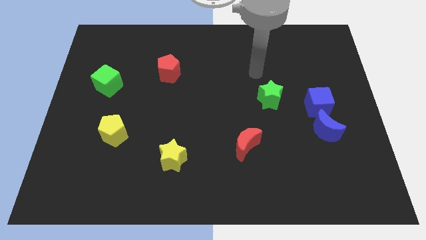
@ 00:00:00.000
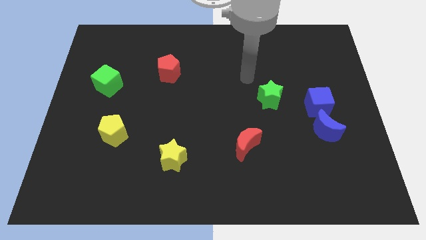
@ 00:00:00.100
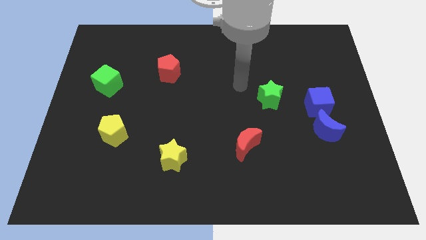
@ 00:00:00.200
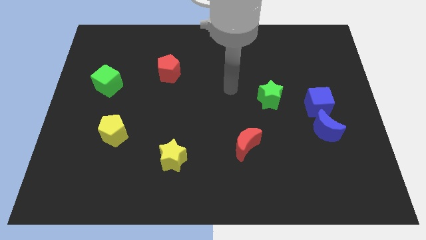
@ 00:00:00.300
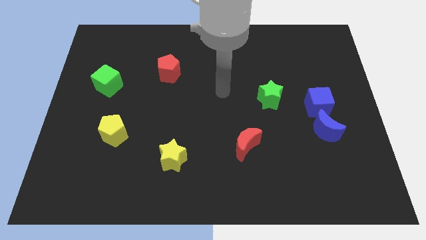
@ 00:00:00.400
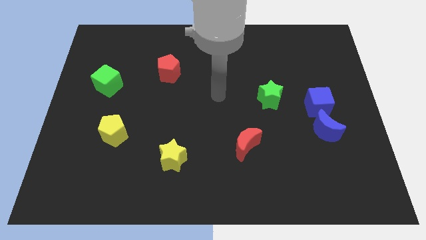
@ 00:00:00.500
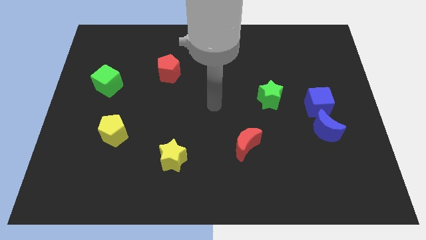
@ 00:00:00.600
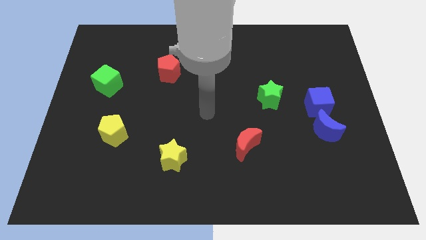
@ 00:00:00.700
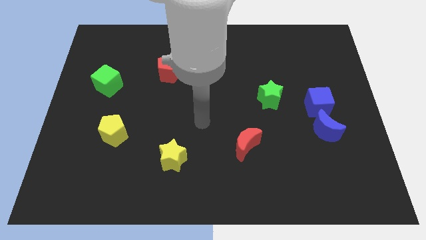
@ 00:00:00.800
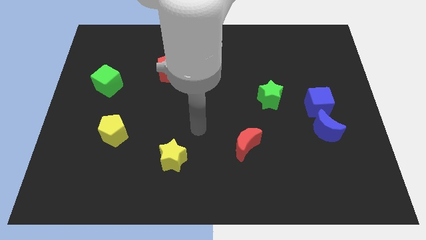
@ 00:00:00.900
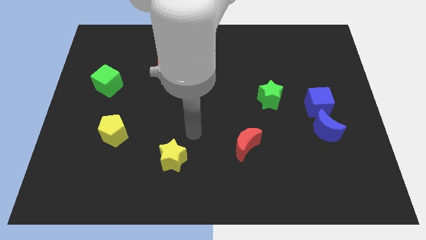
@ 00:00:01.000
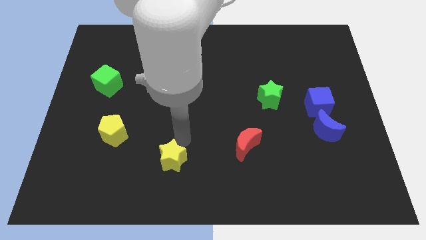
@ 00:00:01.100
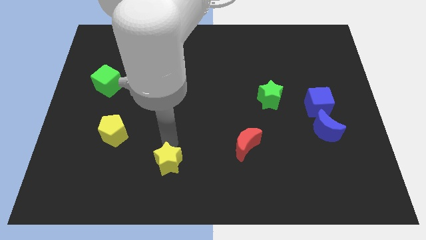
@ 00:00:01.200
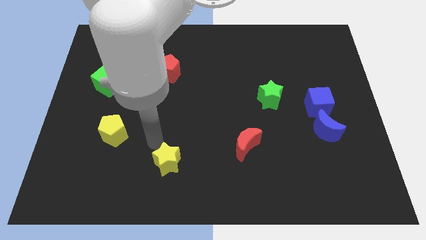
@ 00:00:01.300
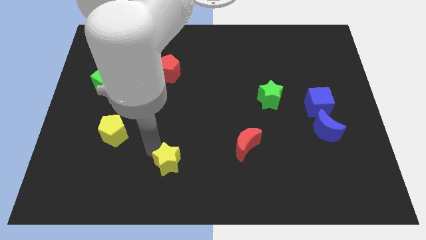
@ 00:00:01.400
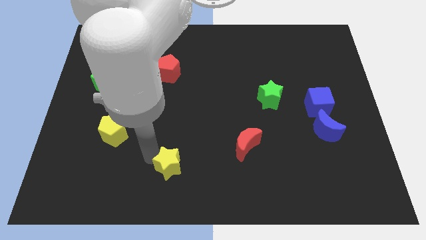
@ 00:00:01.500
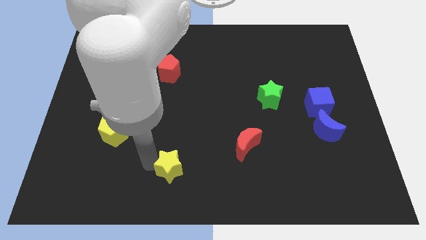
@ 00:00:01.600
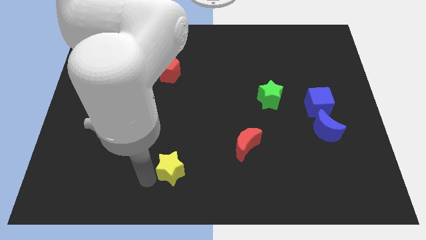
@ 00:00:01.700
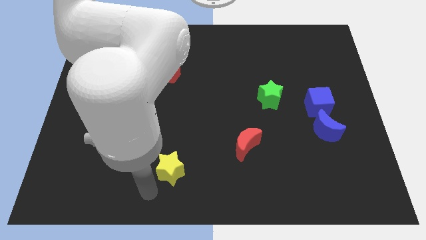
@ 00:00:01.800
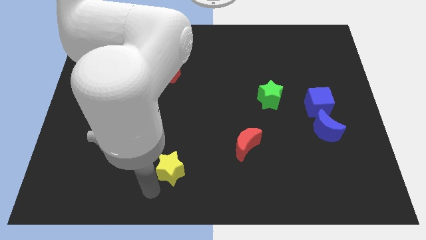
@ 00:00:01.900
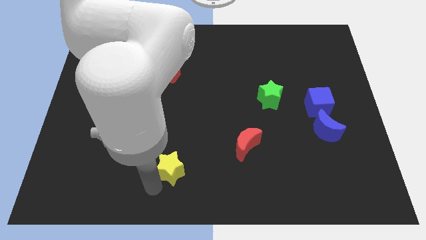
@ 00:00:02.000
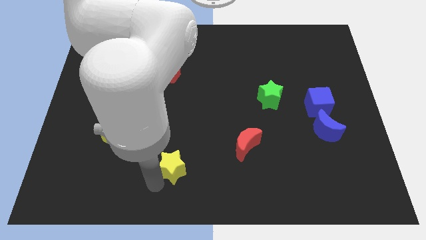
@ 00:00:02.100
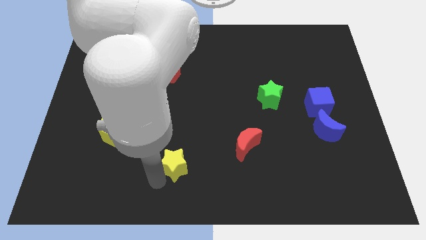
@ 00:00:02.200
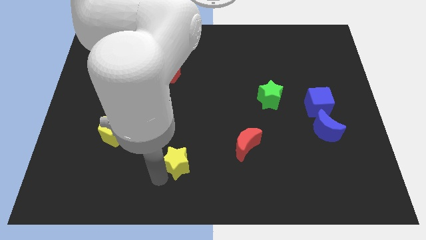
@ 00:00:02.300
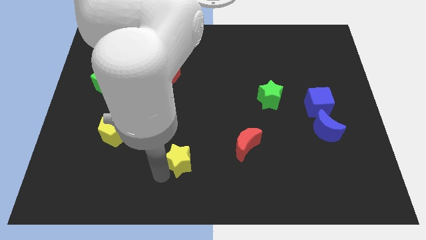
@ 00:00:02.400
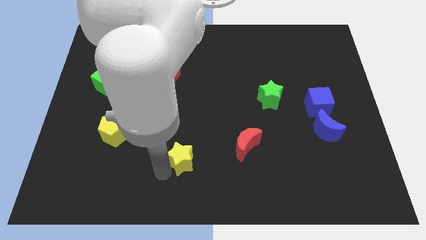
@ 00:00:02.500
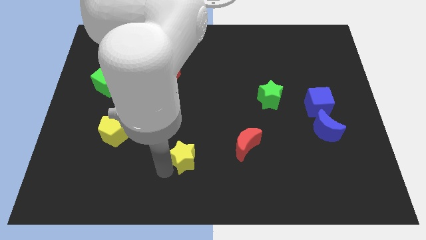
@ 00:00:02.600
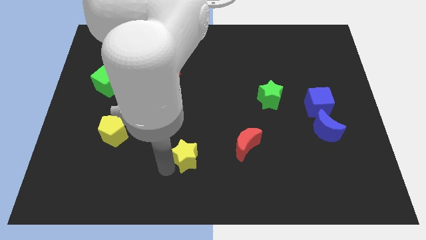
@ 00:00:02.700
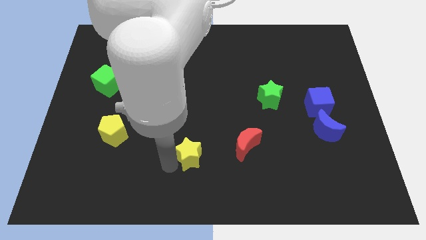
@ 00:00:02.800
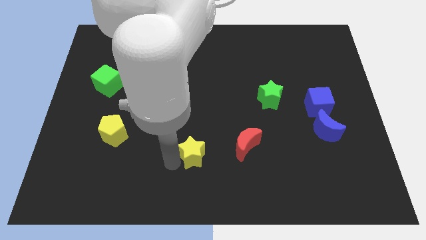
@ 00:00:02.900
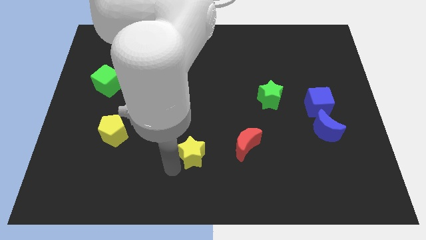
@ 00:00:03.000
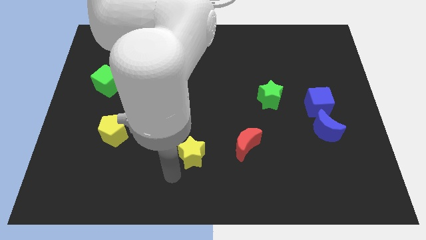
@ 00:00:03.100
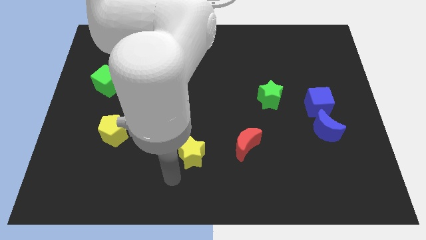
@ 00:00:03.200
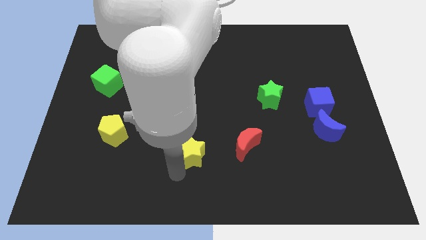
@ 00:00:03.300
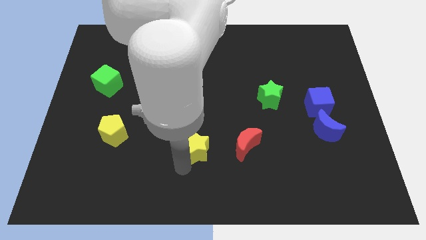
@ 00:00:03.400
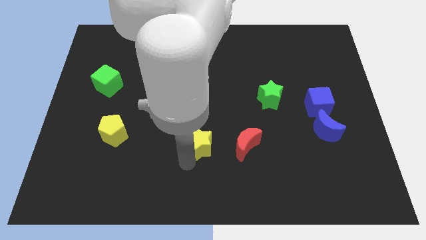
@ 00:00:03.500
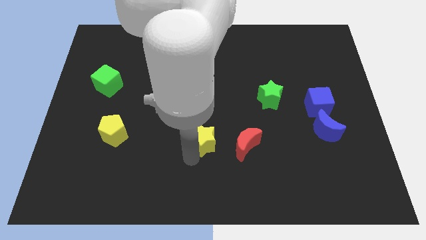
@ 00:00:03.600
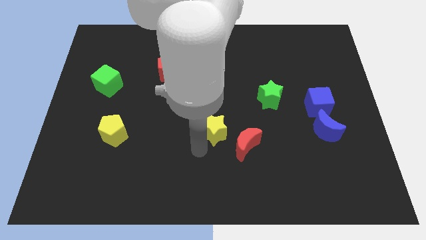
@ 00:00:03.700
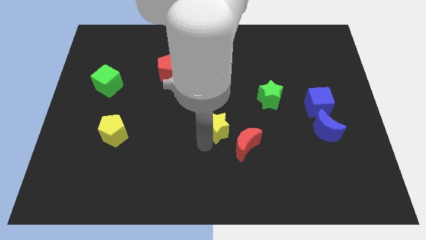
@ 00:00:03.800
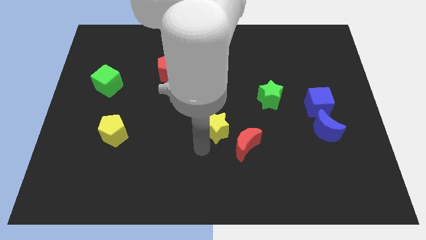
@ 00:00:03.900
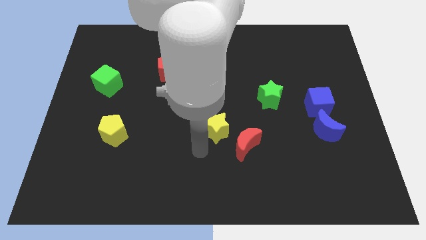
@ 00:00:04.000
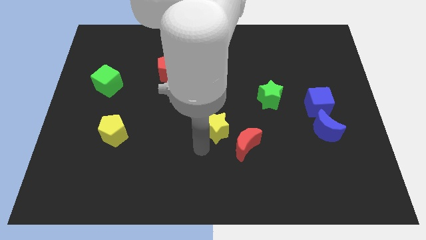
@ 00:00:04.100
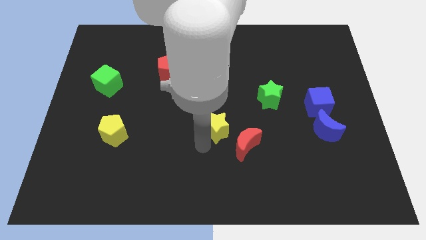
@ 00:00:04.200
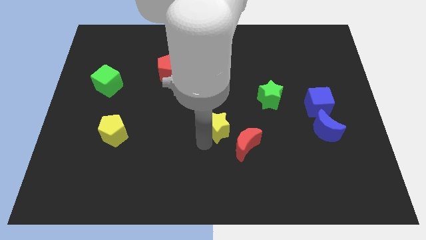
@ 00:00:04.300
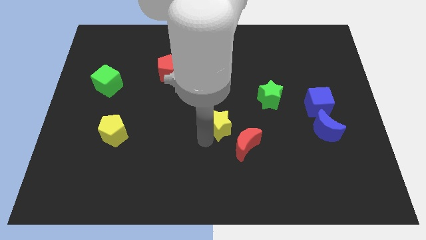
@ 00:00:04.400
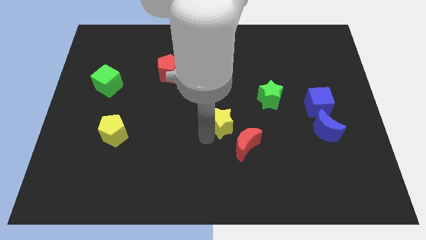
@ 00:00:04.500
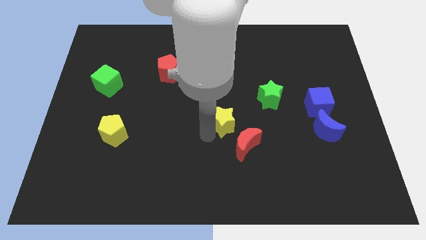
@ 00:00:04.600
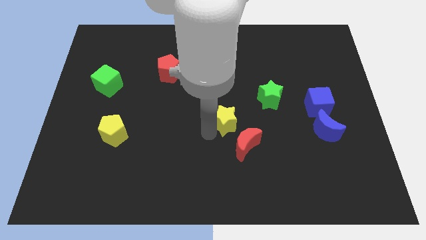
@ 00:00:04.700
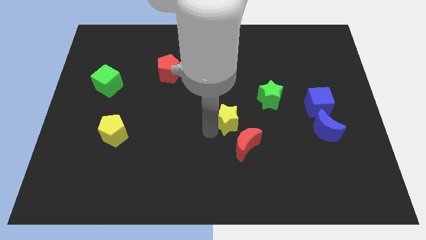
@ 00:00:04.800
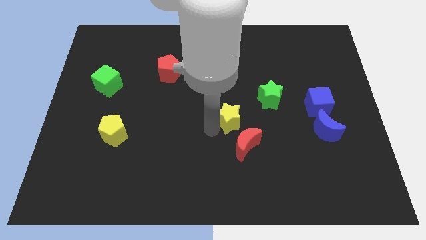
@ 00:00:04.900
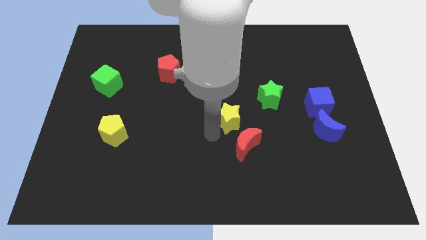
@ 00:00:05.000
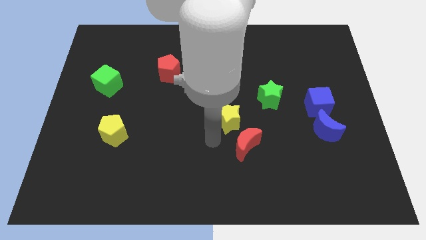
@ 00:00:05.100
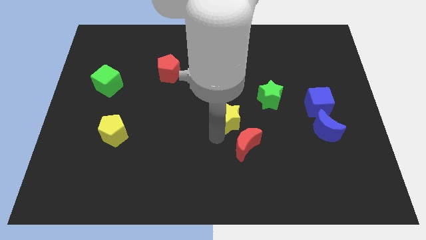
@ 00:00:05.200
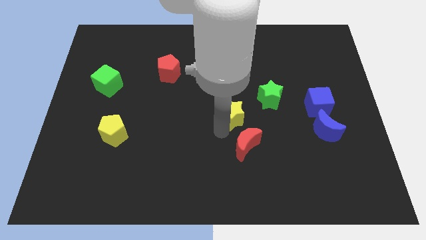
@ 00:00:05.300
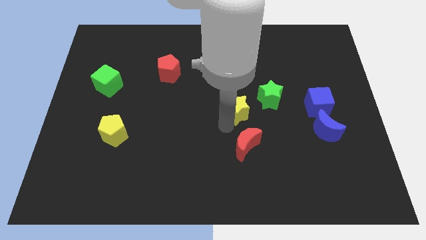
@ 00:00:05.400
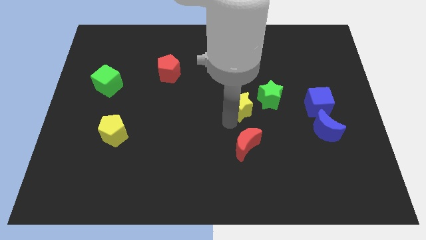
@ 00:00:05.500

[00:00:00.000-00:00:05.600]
push the yellow star diagonally upwards and right

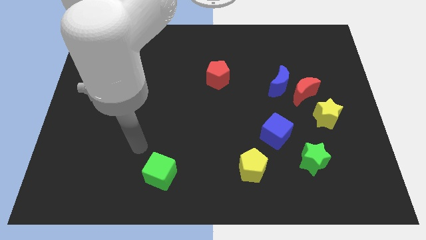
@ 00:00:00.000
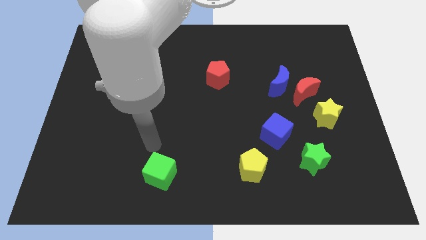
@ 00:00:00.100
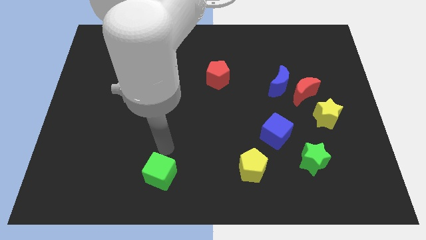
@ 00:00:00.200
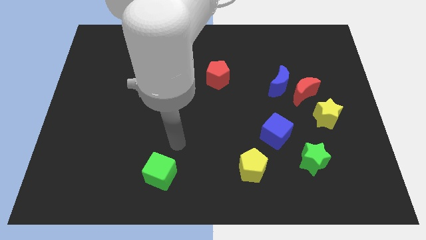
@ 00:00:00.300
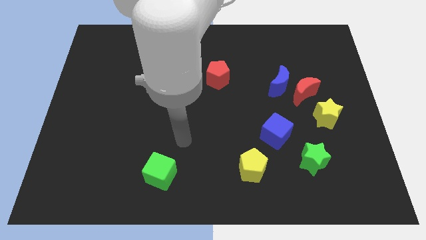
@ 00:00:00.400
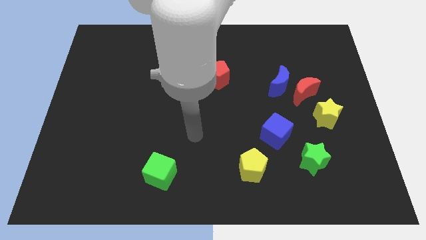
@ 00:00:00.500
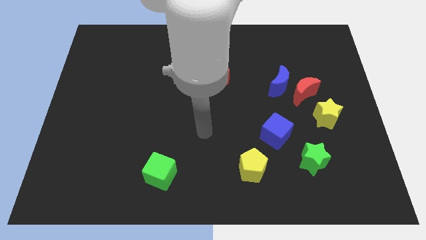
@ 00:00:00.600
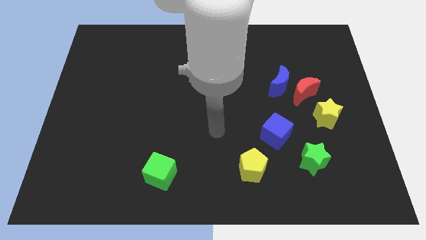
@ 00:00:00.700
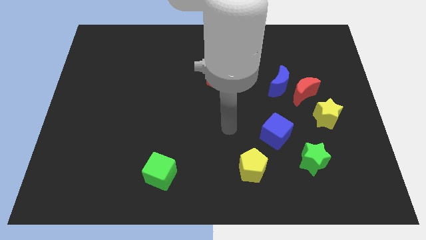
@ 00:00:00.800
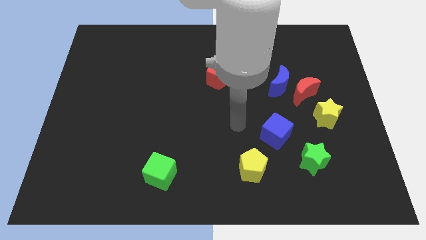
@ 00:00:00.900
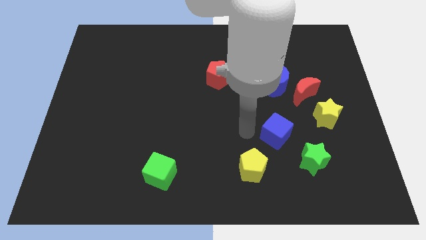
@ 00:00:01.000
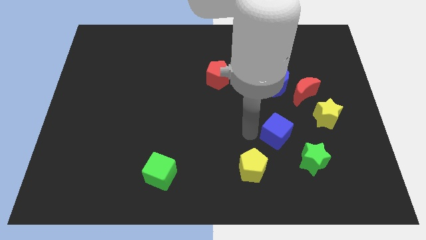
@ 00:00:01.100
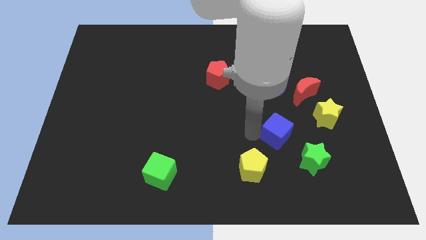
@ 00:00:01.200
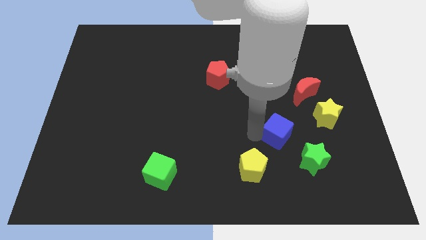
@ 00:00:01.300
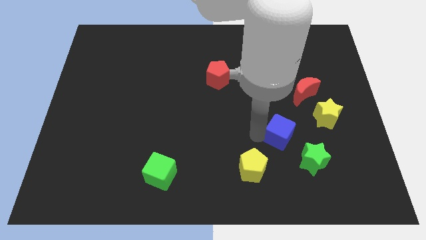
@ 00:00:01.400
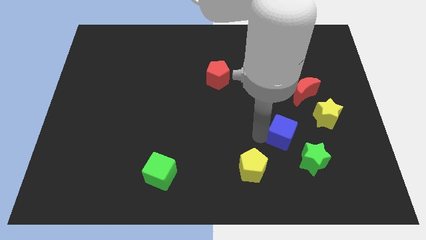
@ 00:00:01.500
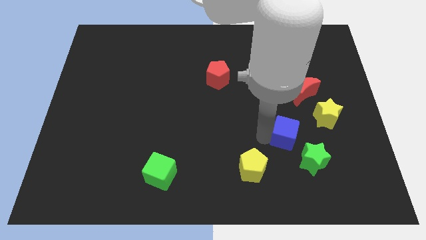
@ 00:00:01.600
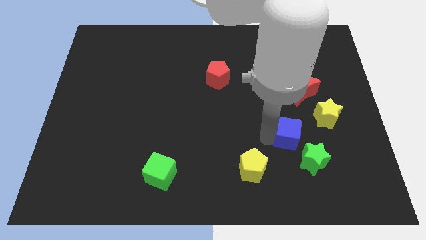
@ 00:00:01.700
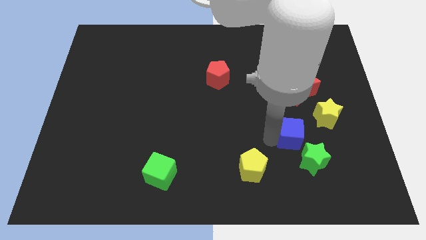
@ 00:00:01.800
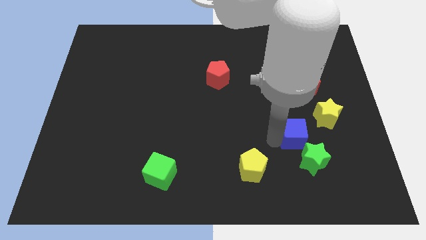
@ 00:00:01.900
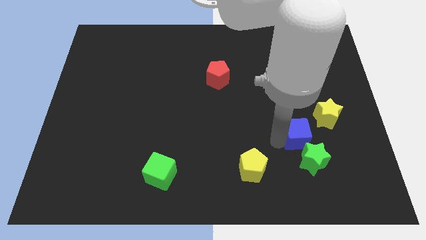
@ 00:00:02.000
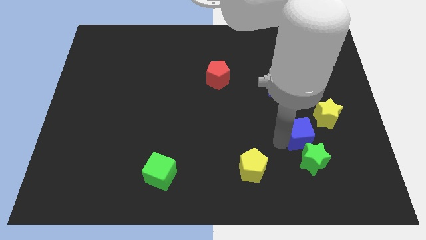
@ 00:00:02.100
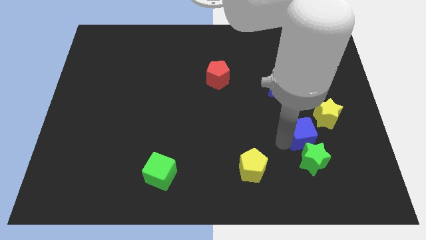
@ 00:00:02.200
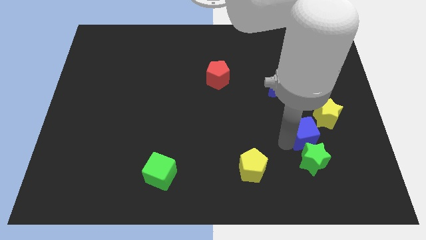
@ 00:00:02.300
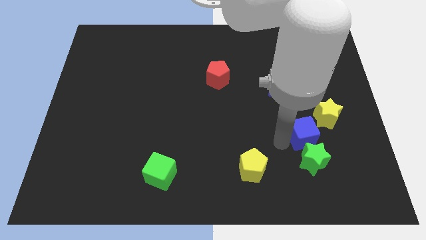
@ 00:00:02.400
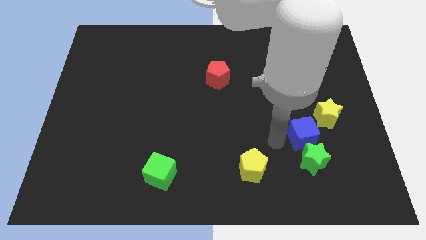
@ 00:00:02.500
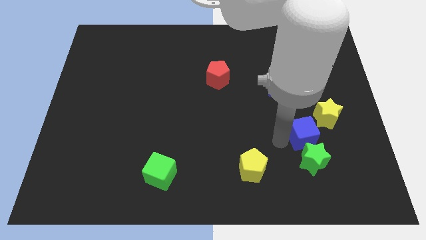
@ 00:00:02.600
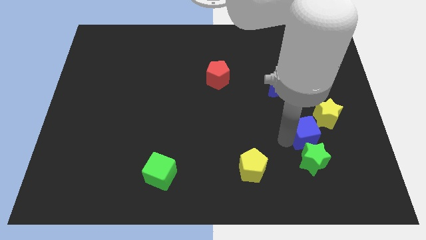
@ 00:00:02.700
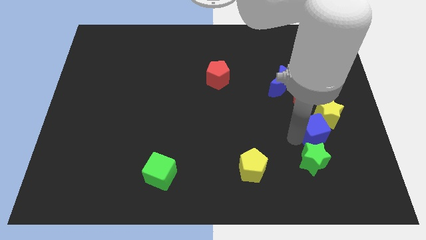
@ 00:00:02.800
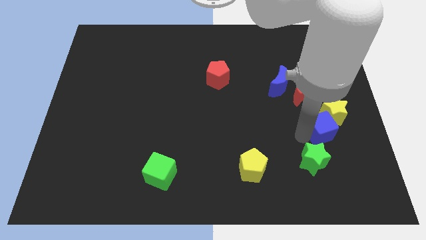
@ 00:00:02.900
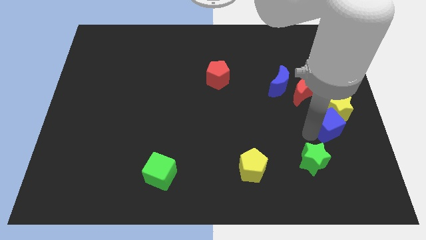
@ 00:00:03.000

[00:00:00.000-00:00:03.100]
move the blue cube a little up and right
